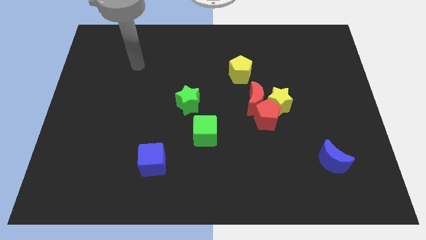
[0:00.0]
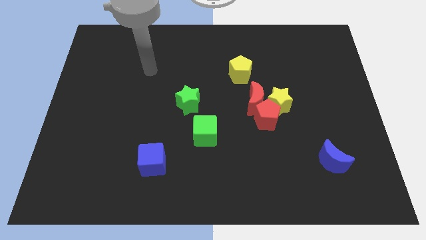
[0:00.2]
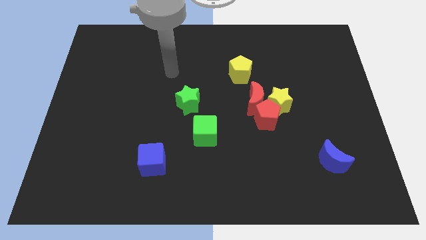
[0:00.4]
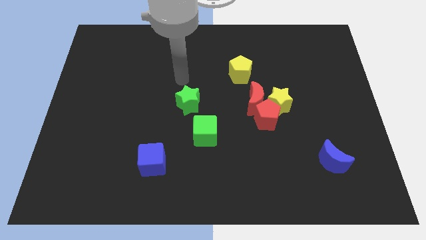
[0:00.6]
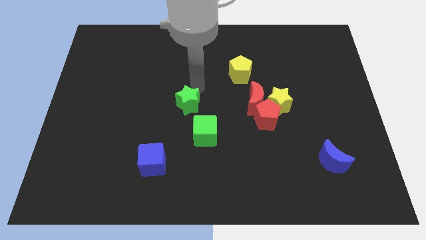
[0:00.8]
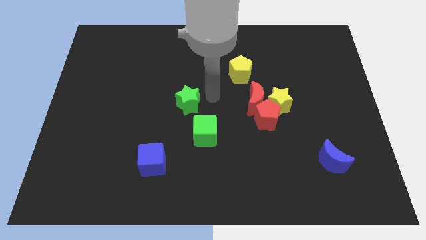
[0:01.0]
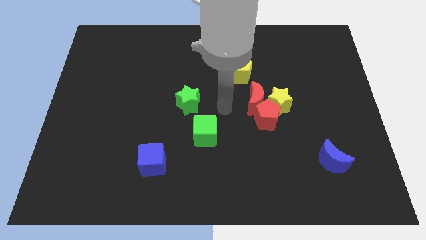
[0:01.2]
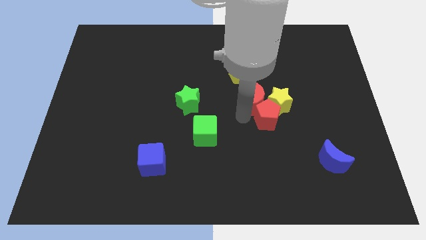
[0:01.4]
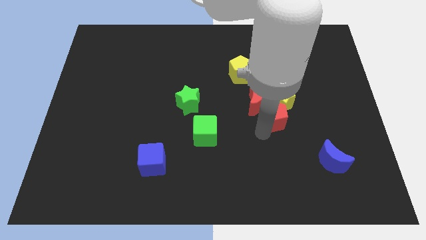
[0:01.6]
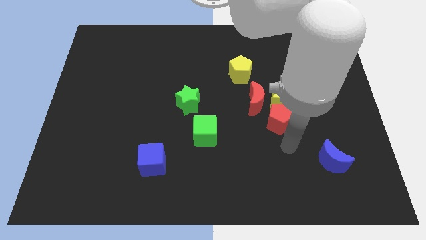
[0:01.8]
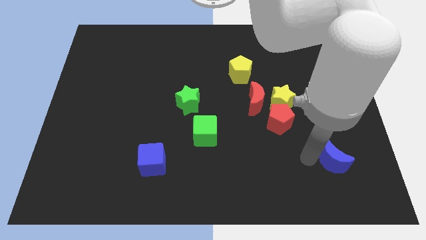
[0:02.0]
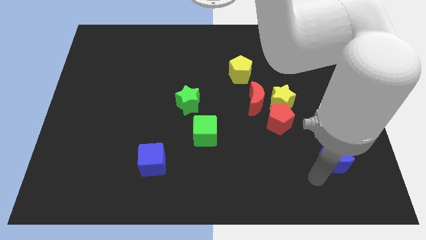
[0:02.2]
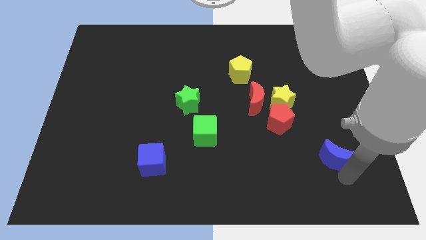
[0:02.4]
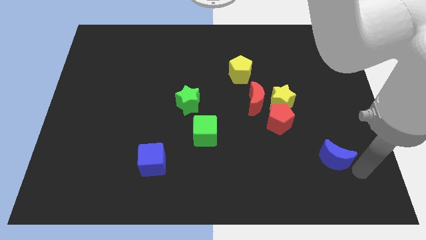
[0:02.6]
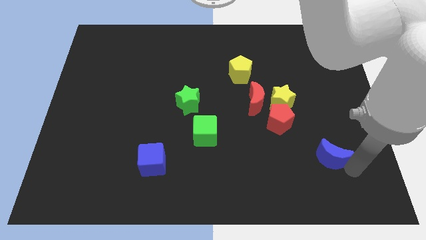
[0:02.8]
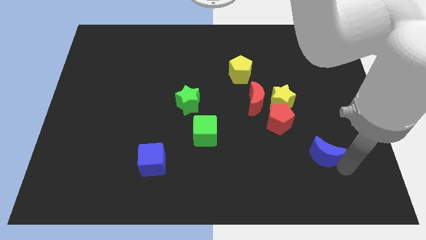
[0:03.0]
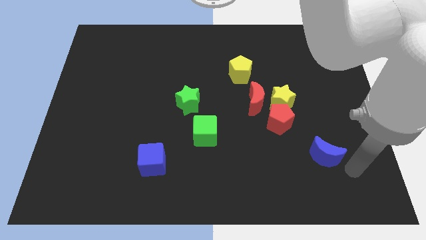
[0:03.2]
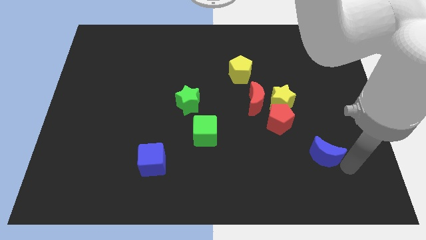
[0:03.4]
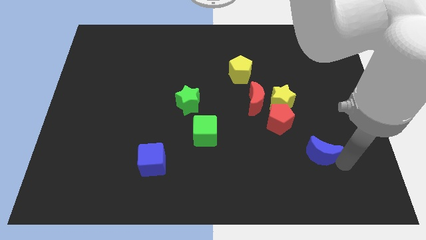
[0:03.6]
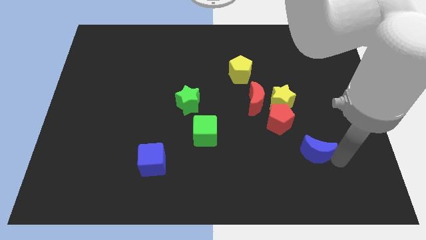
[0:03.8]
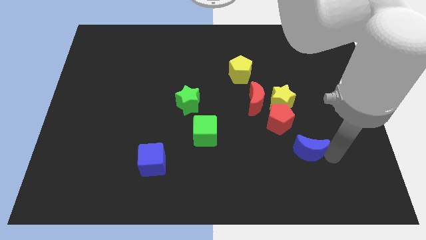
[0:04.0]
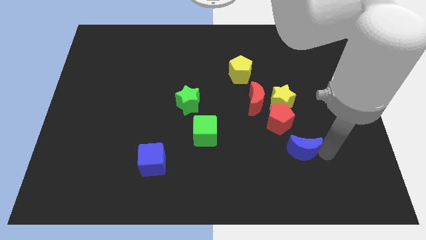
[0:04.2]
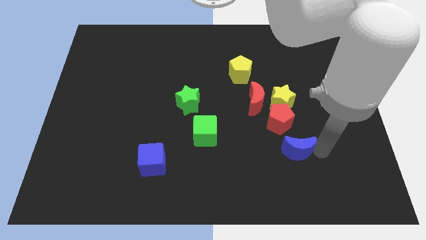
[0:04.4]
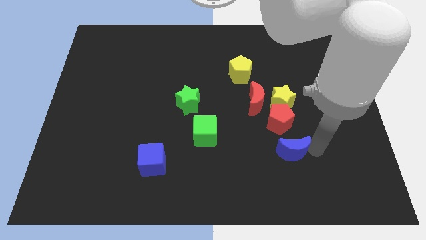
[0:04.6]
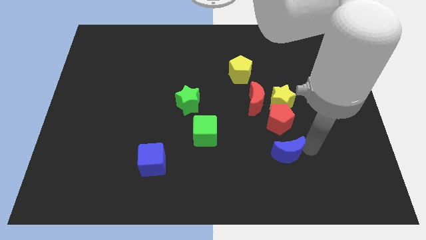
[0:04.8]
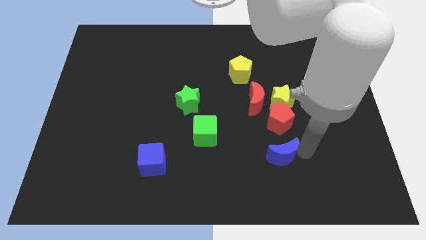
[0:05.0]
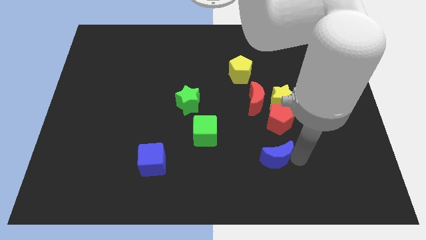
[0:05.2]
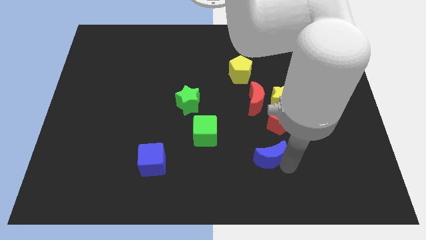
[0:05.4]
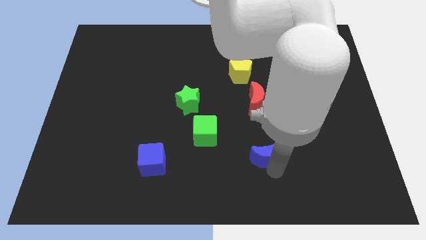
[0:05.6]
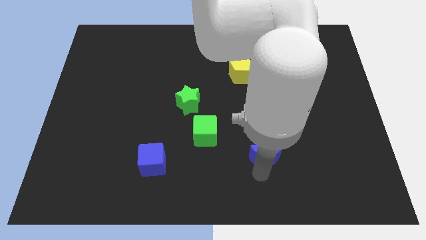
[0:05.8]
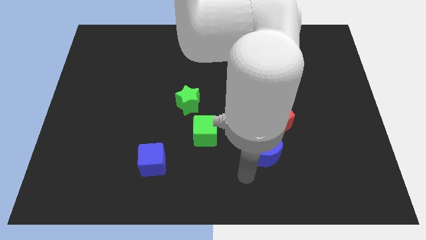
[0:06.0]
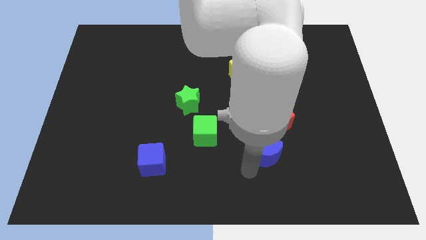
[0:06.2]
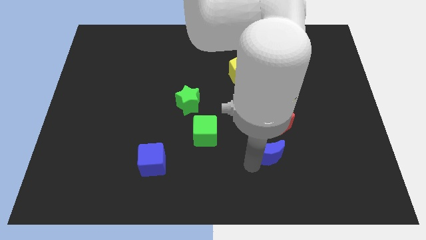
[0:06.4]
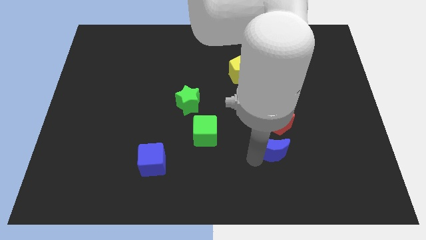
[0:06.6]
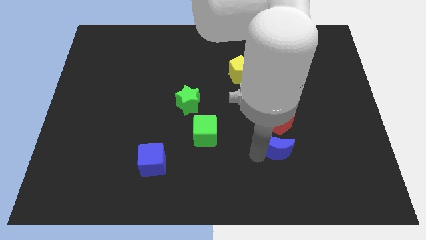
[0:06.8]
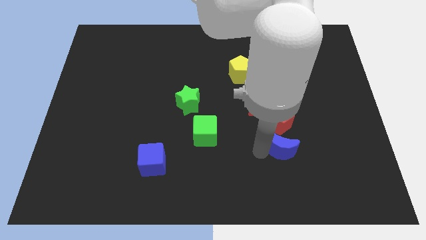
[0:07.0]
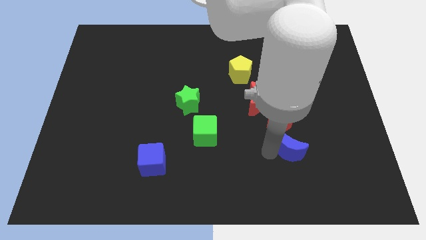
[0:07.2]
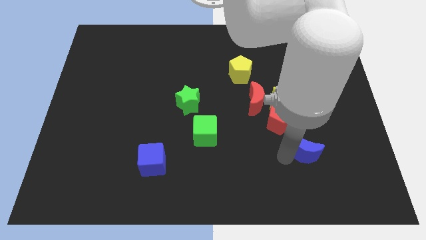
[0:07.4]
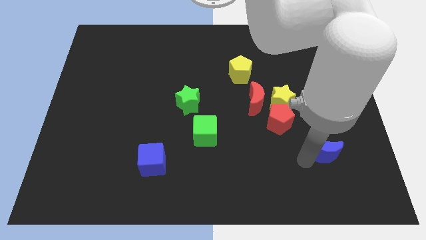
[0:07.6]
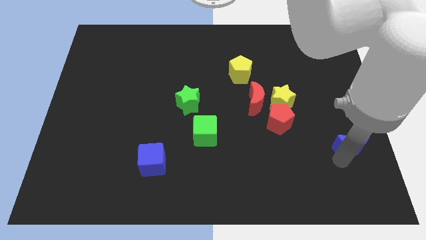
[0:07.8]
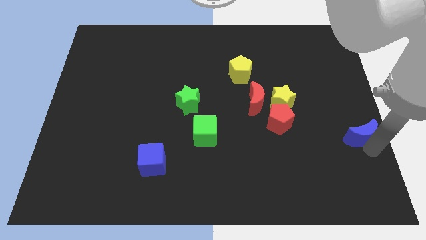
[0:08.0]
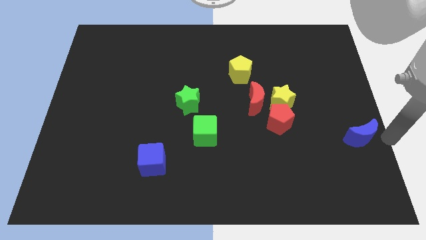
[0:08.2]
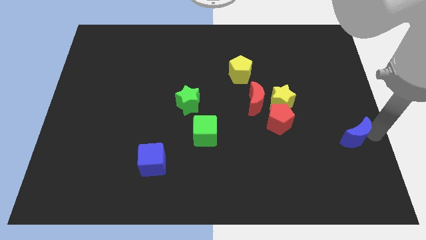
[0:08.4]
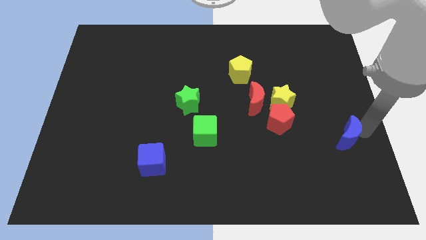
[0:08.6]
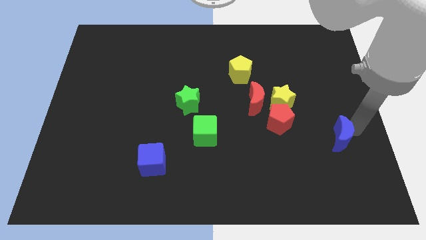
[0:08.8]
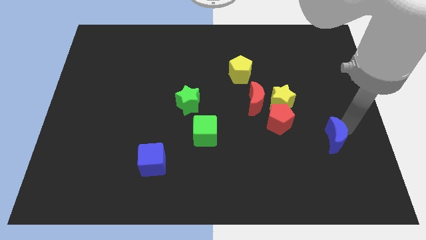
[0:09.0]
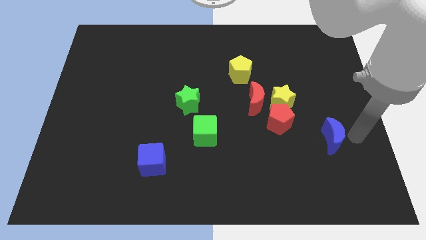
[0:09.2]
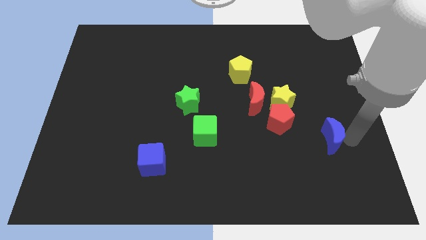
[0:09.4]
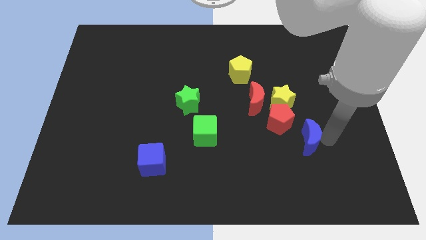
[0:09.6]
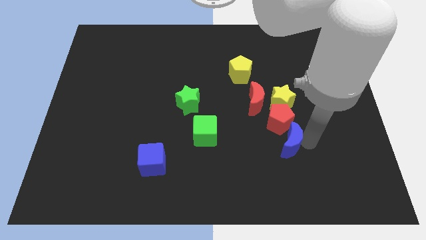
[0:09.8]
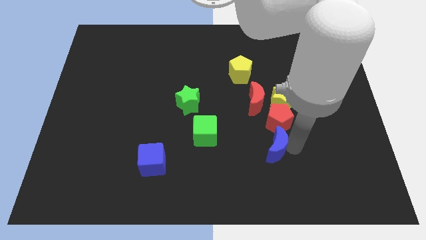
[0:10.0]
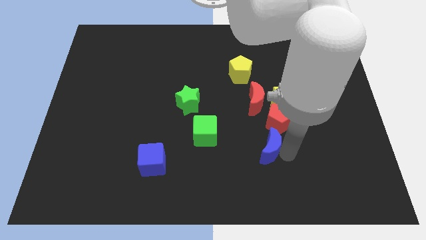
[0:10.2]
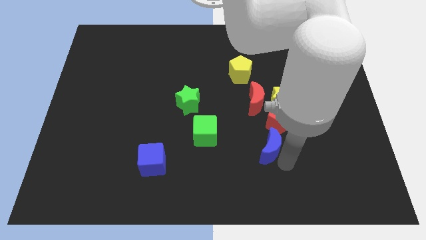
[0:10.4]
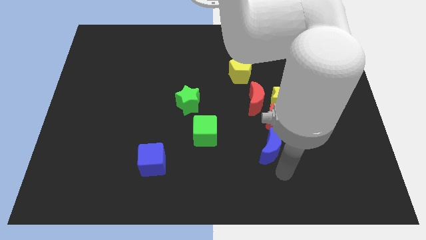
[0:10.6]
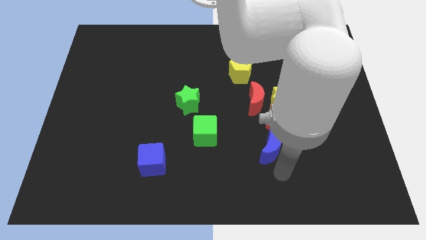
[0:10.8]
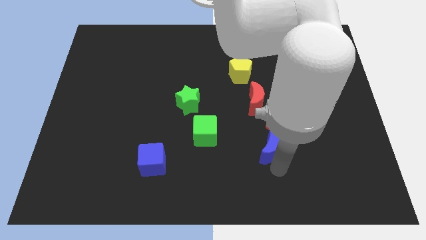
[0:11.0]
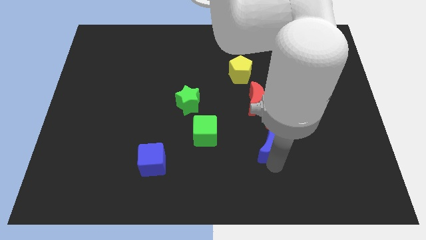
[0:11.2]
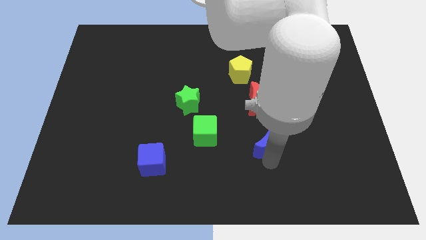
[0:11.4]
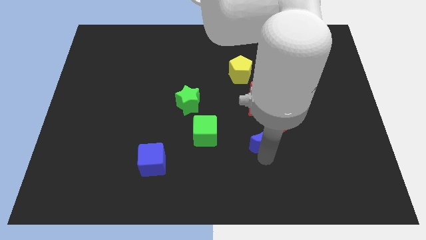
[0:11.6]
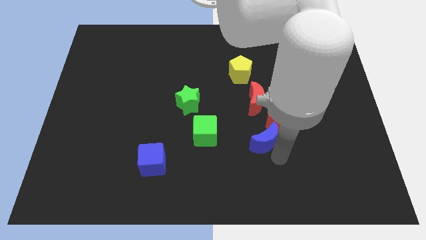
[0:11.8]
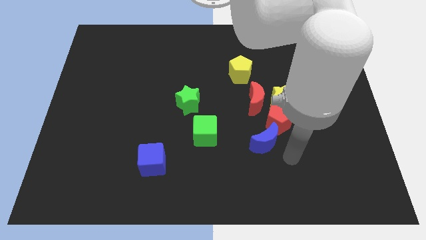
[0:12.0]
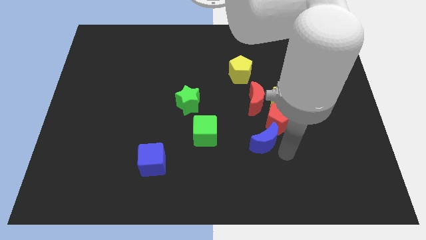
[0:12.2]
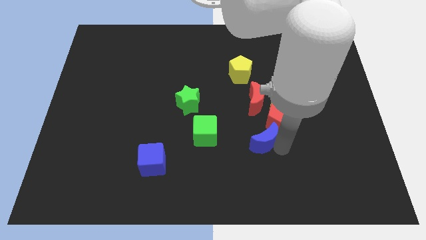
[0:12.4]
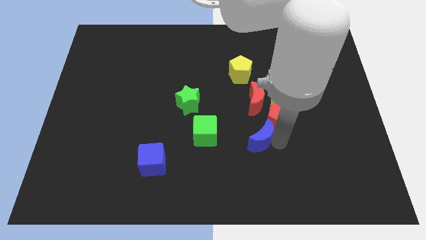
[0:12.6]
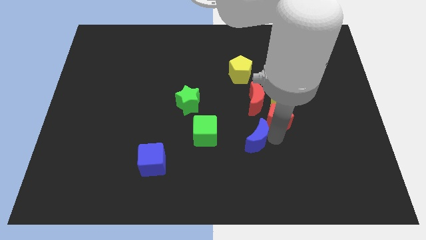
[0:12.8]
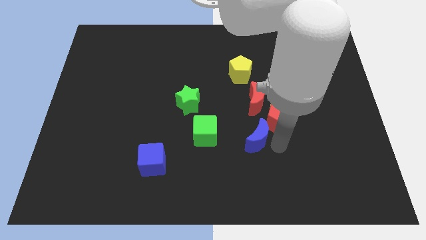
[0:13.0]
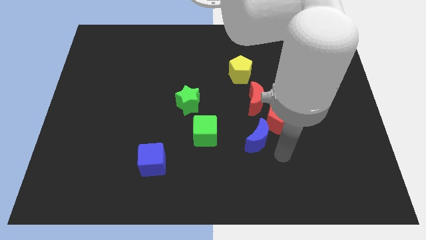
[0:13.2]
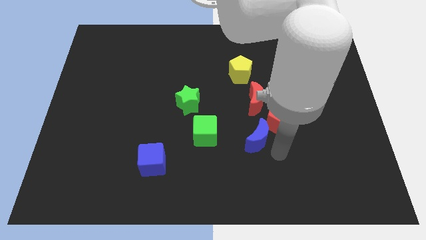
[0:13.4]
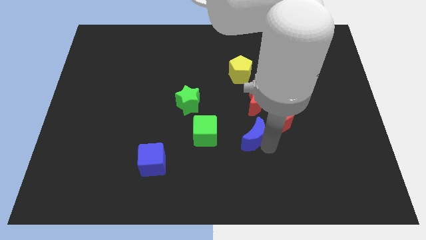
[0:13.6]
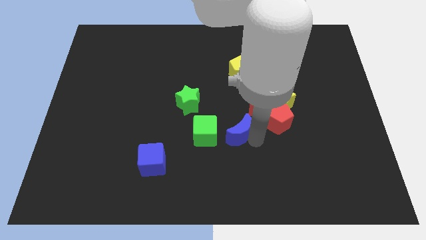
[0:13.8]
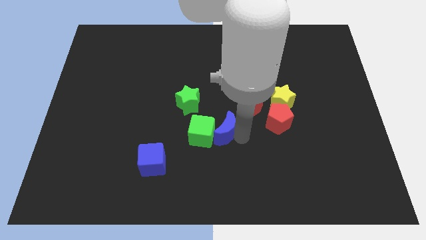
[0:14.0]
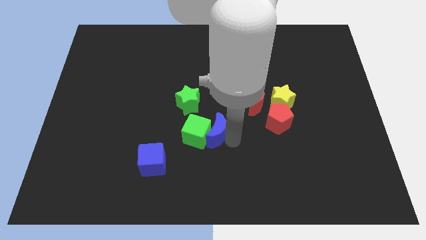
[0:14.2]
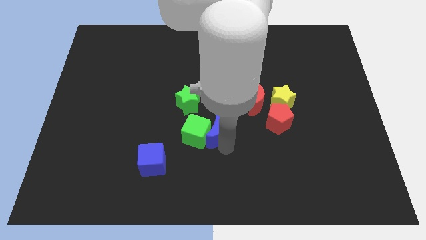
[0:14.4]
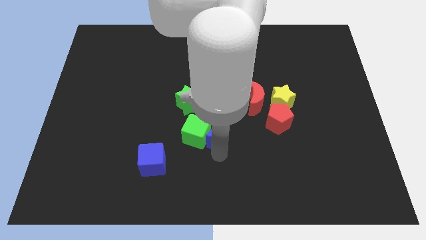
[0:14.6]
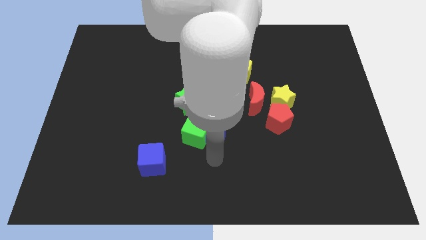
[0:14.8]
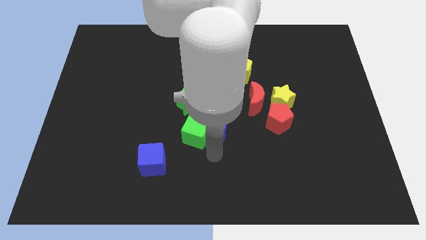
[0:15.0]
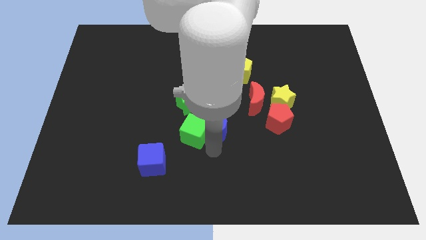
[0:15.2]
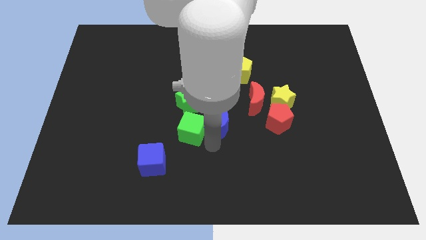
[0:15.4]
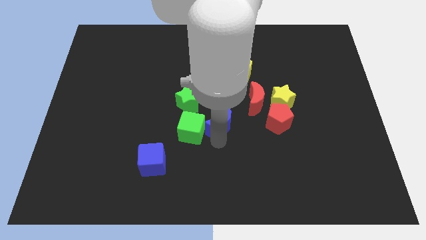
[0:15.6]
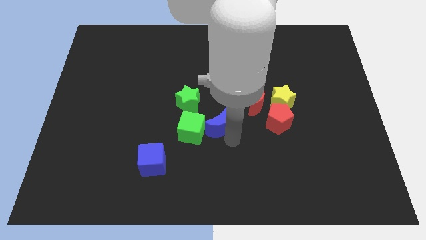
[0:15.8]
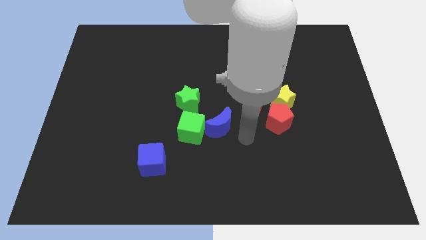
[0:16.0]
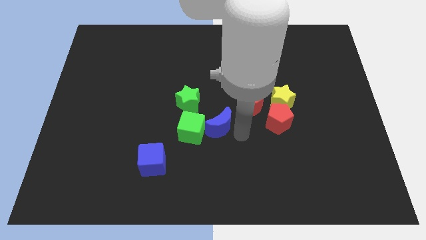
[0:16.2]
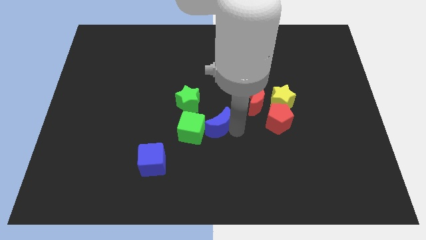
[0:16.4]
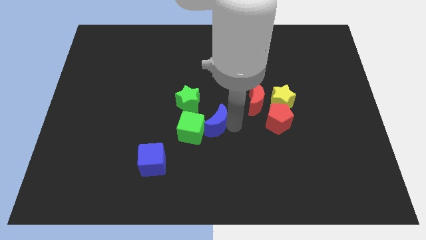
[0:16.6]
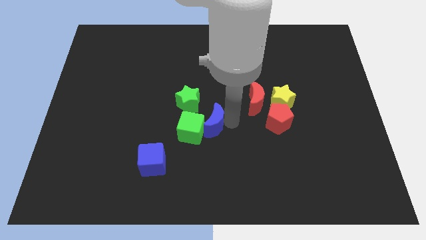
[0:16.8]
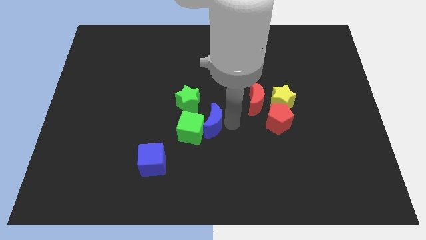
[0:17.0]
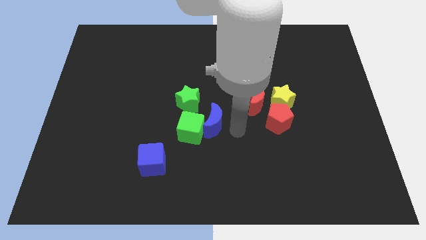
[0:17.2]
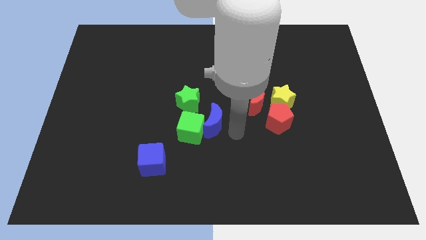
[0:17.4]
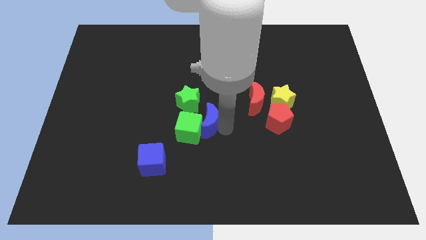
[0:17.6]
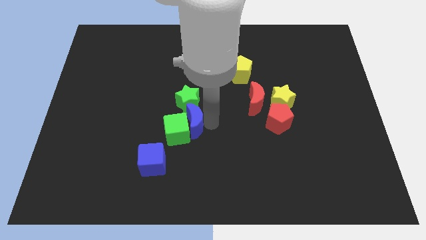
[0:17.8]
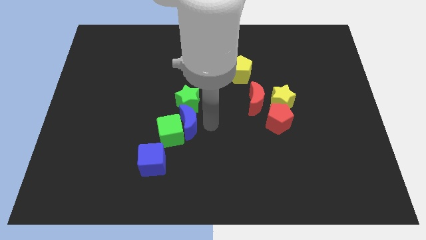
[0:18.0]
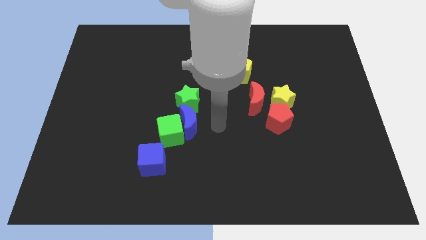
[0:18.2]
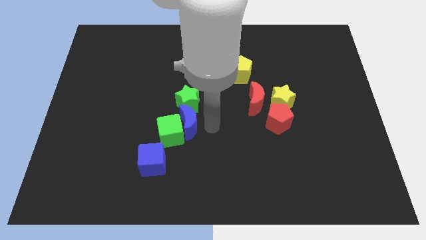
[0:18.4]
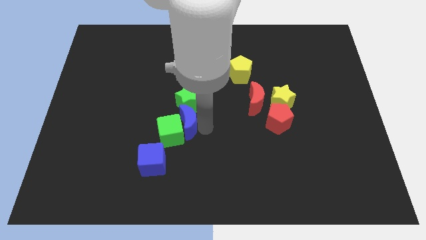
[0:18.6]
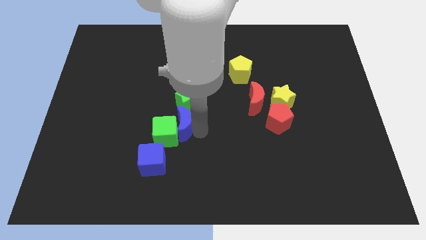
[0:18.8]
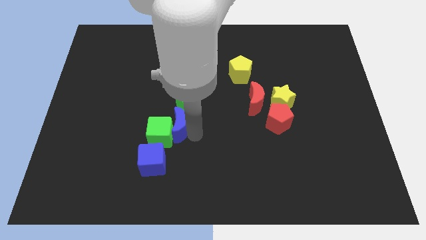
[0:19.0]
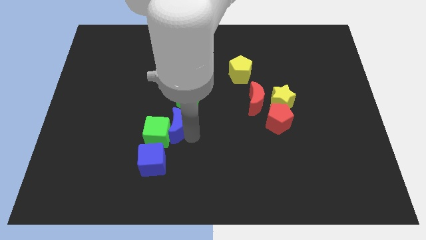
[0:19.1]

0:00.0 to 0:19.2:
move the blue moon above the blue cube
